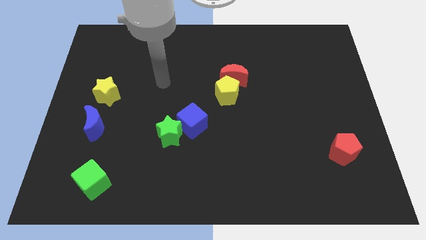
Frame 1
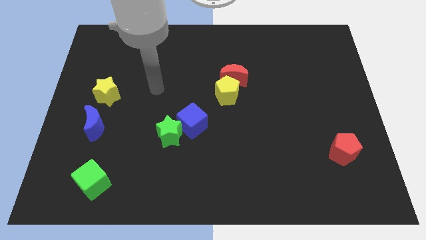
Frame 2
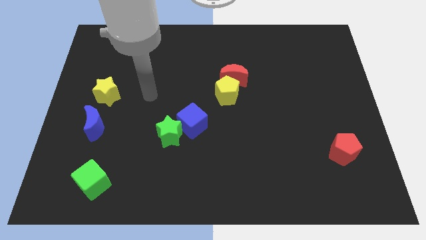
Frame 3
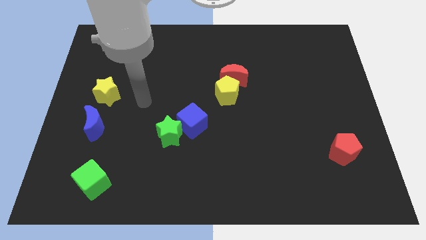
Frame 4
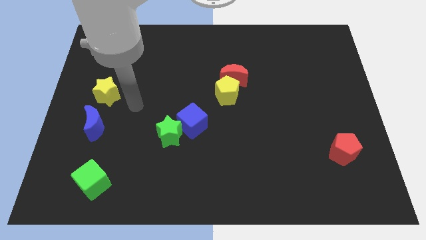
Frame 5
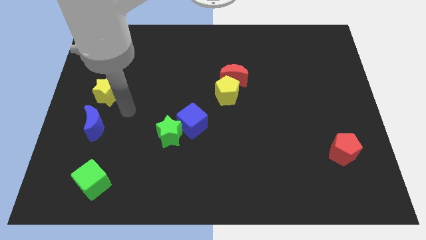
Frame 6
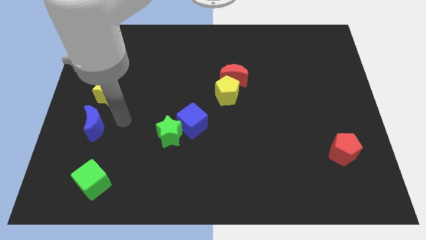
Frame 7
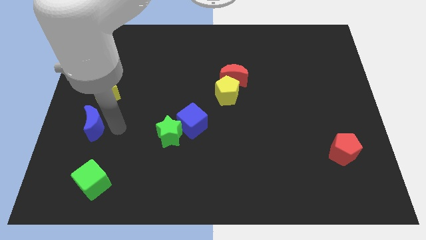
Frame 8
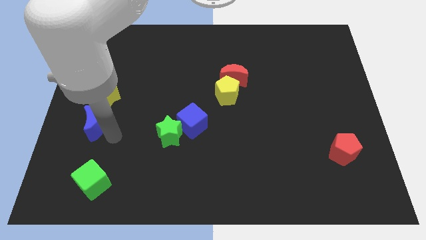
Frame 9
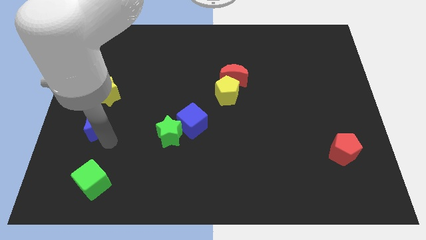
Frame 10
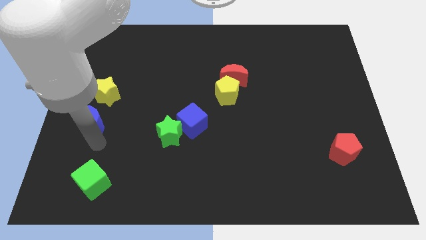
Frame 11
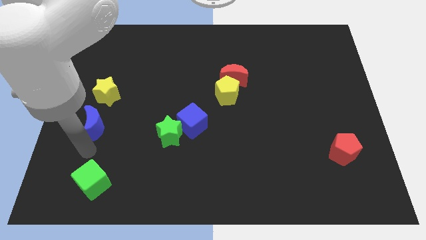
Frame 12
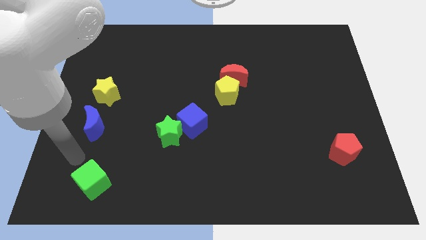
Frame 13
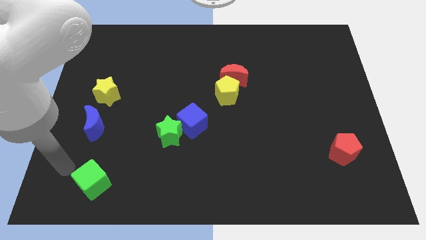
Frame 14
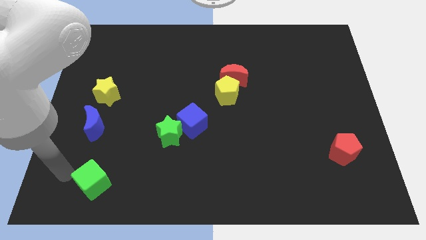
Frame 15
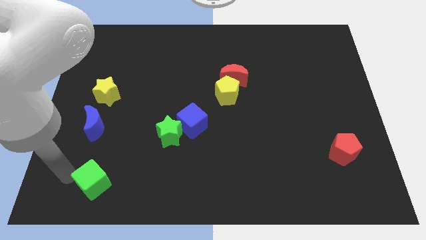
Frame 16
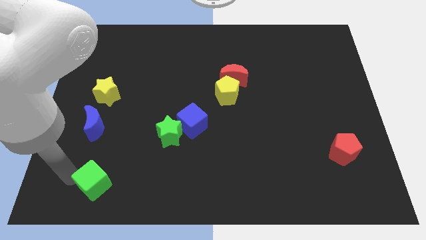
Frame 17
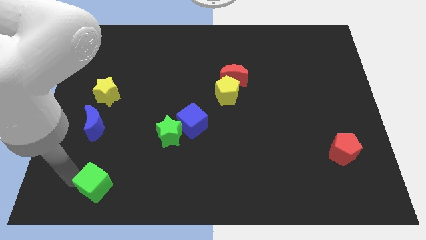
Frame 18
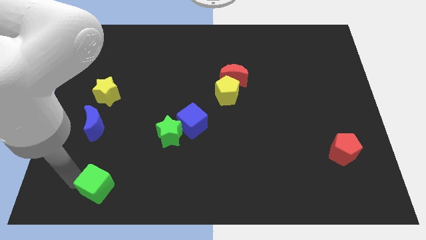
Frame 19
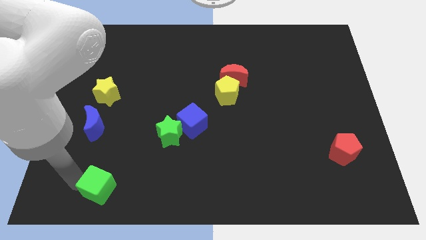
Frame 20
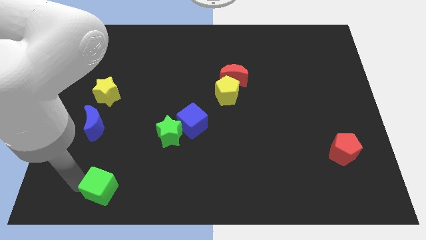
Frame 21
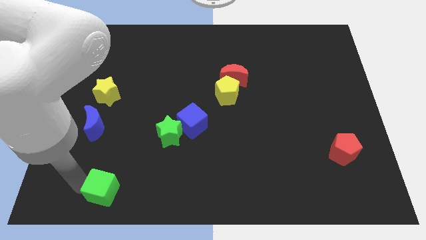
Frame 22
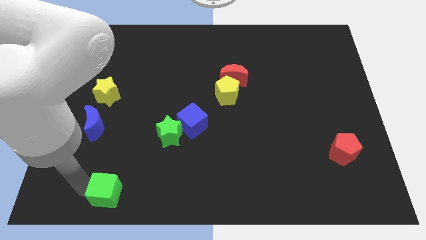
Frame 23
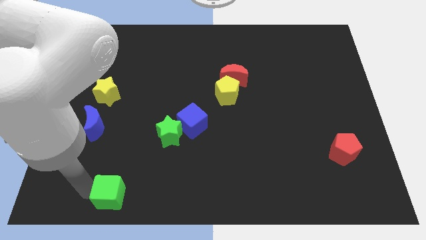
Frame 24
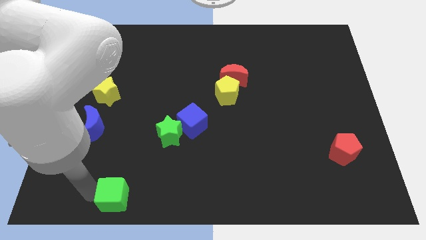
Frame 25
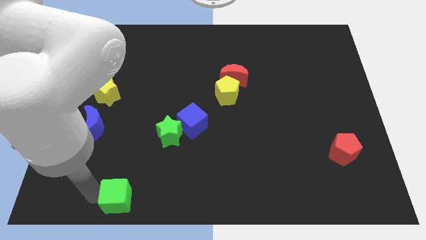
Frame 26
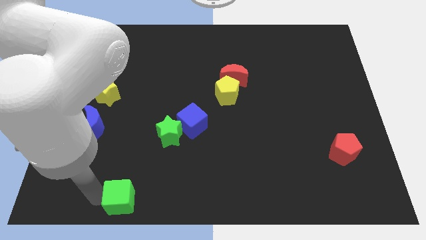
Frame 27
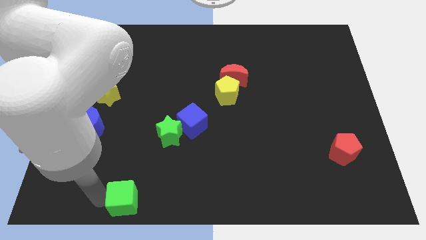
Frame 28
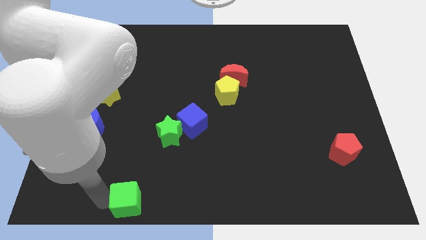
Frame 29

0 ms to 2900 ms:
slide the green cube right a bit

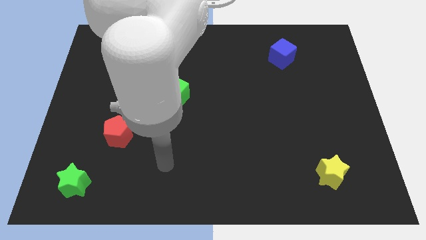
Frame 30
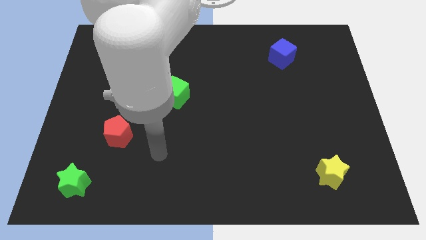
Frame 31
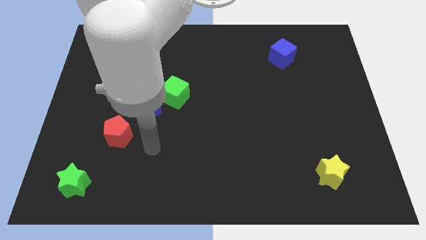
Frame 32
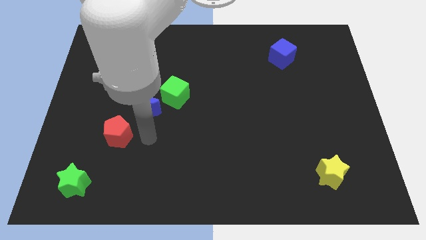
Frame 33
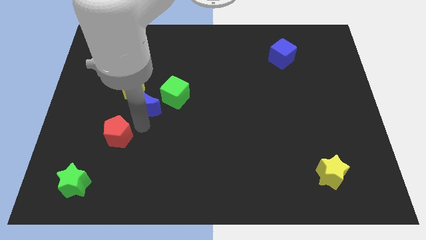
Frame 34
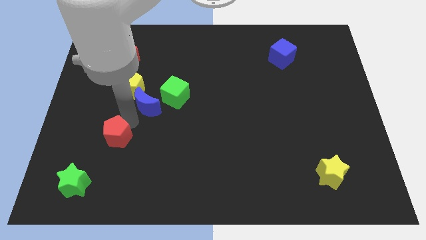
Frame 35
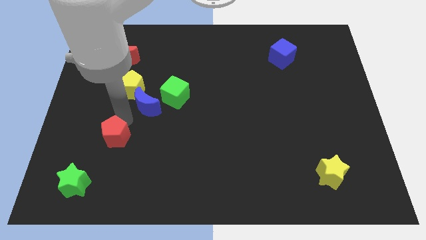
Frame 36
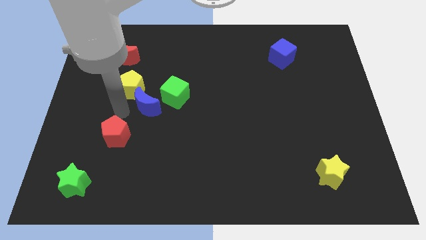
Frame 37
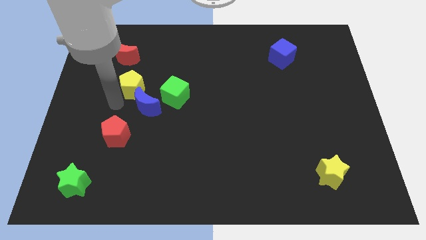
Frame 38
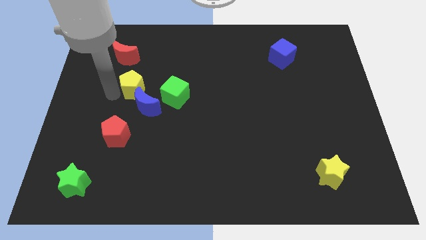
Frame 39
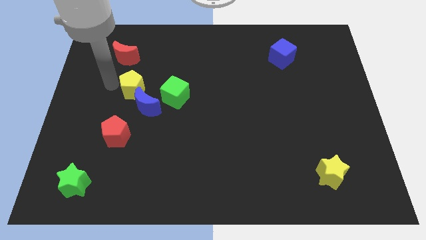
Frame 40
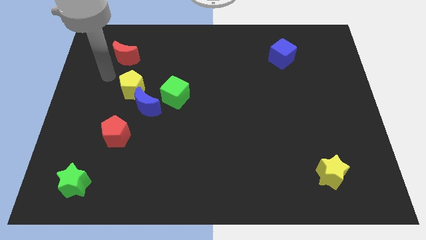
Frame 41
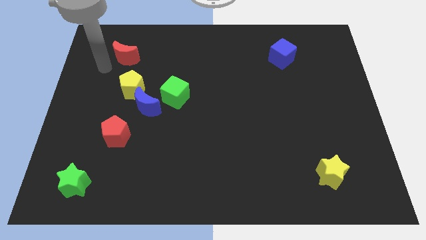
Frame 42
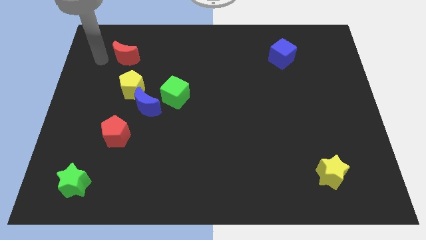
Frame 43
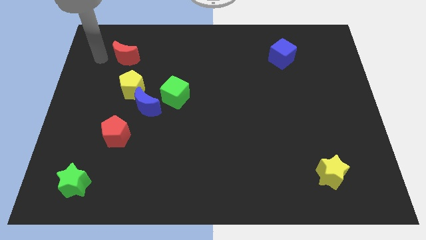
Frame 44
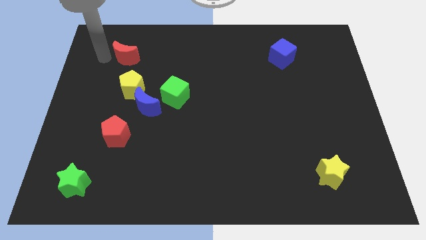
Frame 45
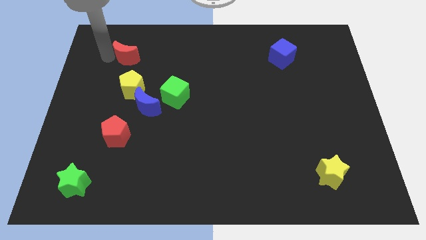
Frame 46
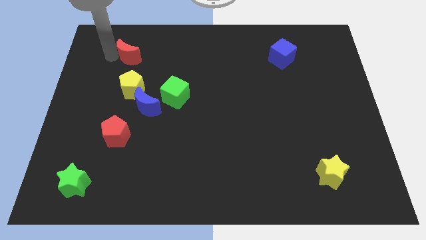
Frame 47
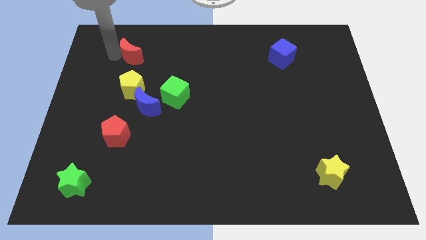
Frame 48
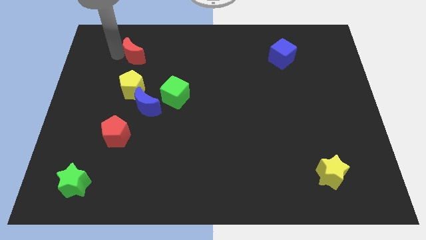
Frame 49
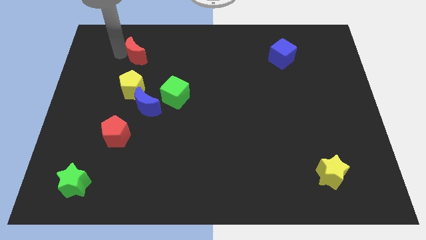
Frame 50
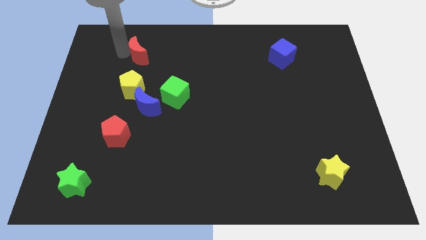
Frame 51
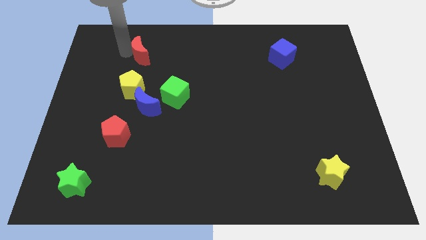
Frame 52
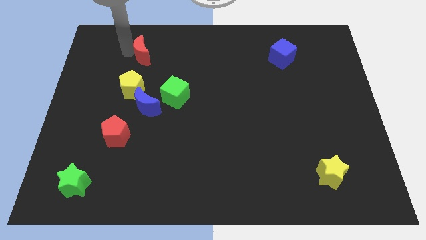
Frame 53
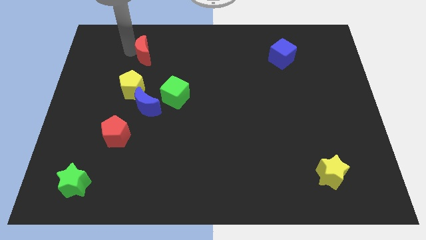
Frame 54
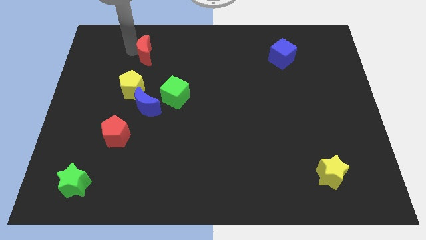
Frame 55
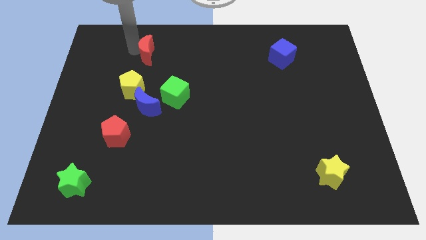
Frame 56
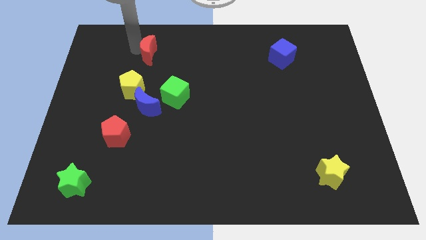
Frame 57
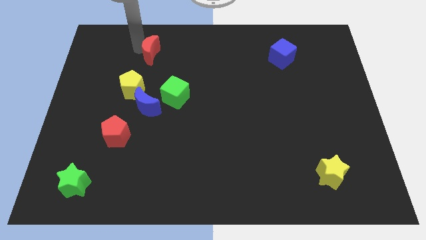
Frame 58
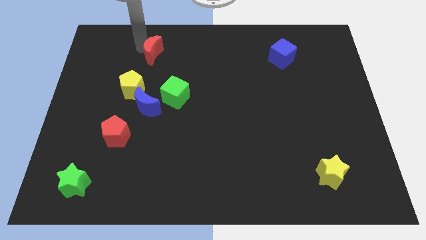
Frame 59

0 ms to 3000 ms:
push the red moon right a little bit

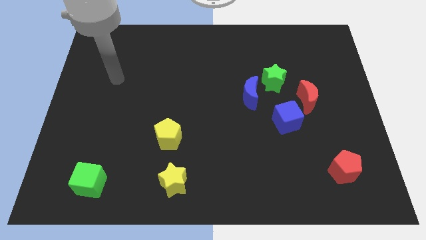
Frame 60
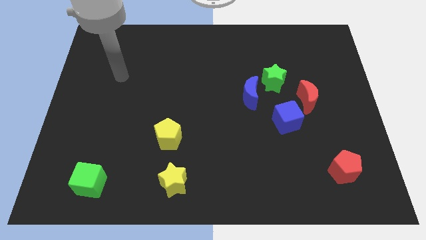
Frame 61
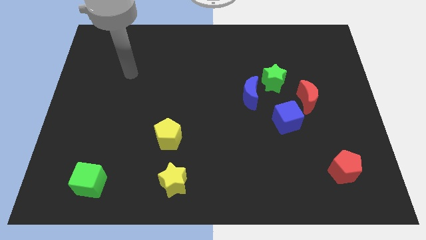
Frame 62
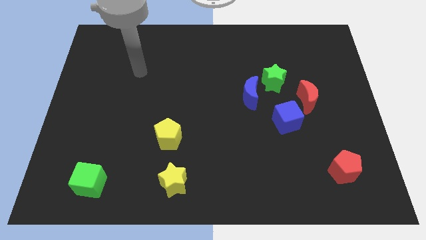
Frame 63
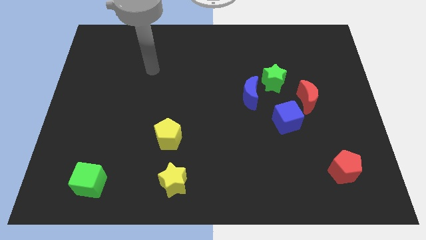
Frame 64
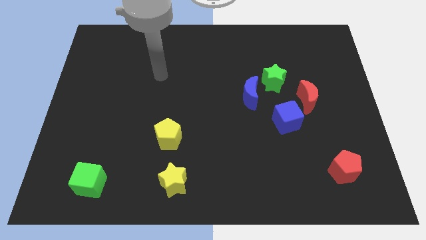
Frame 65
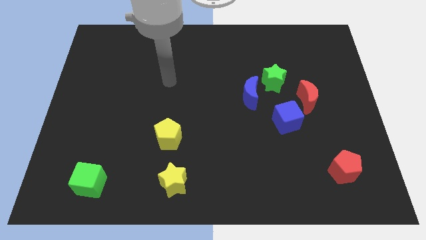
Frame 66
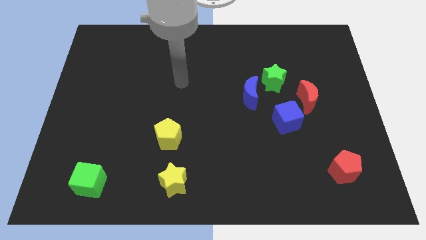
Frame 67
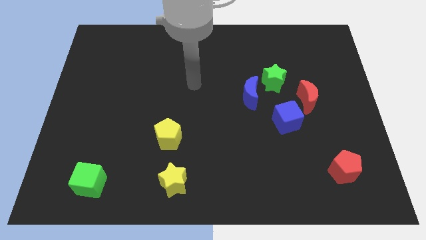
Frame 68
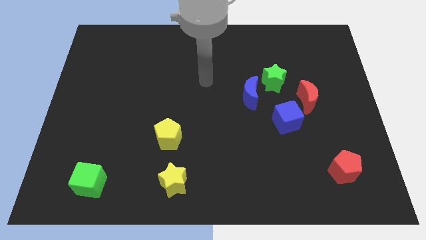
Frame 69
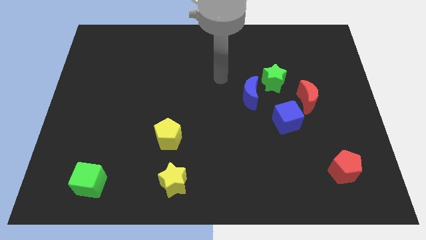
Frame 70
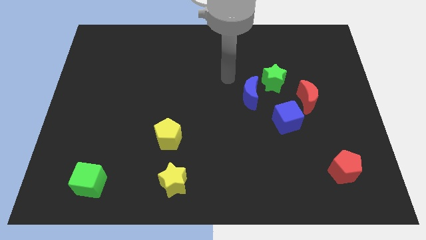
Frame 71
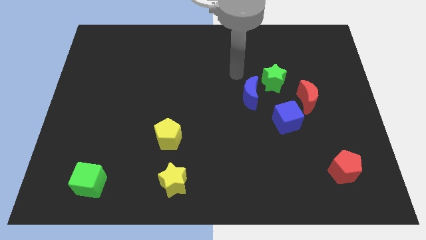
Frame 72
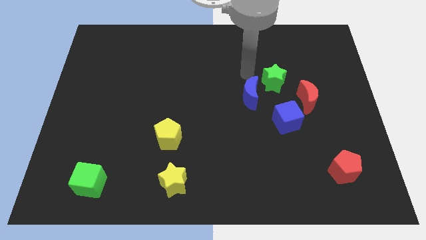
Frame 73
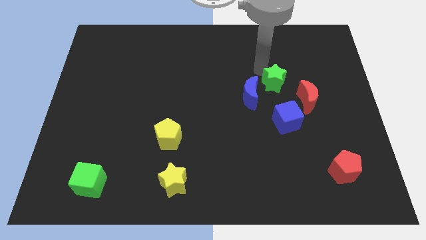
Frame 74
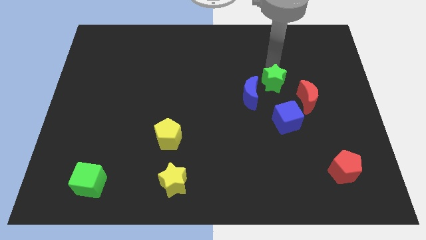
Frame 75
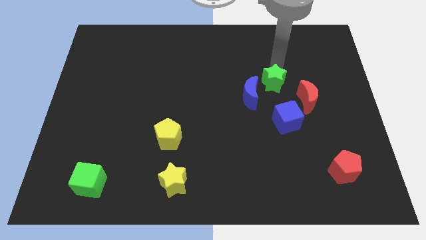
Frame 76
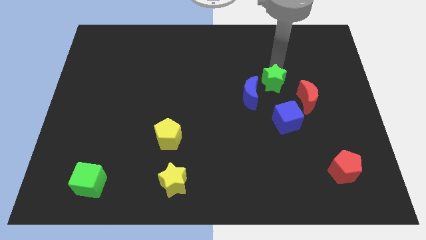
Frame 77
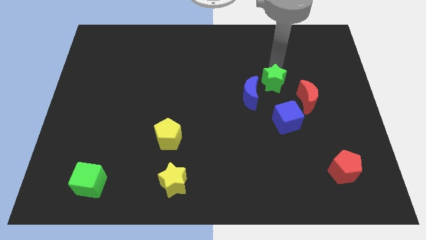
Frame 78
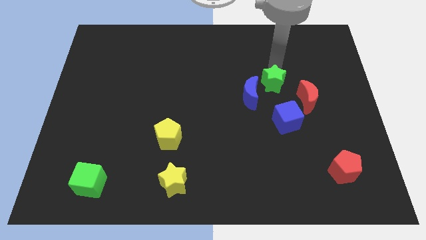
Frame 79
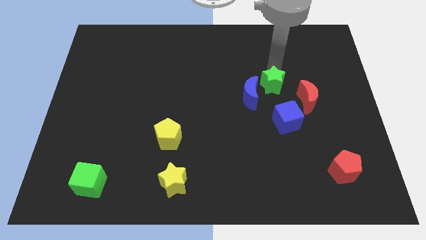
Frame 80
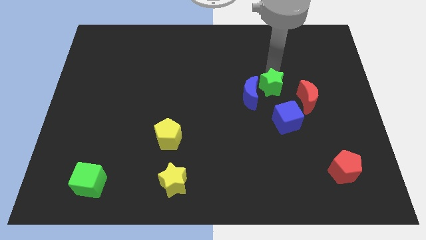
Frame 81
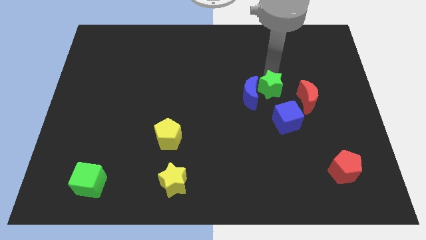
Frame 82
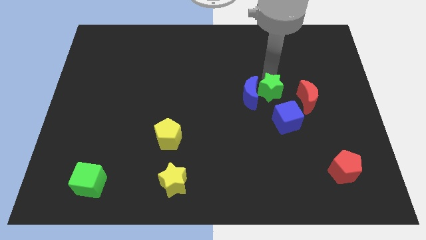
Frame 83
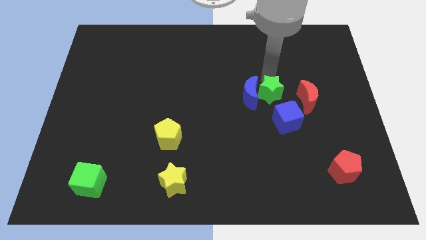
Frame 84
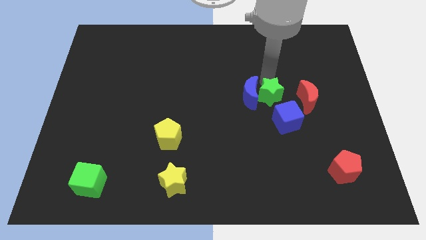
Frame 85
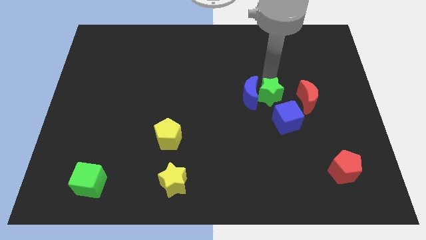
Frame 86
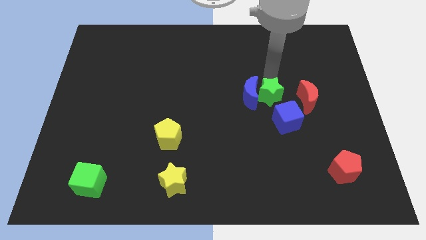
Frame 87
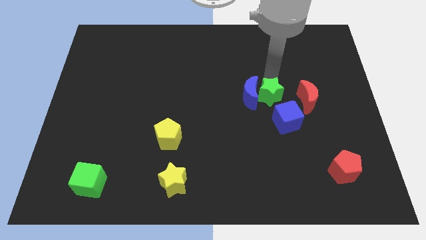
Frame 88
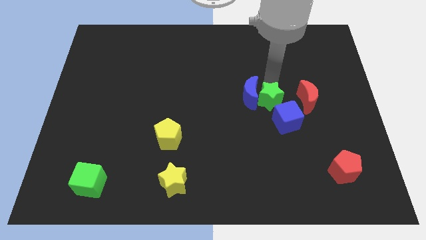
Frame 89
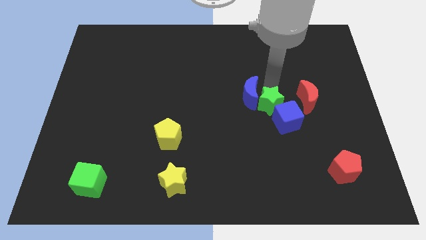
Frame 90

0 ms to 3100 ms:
move the green star a bit down
